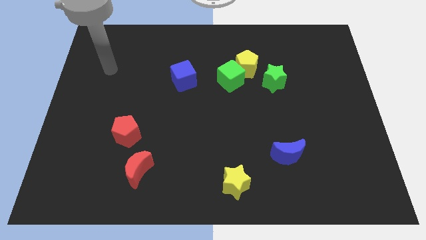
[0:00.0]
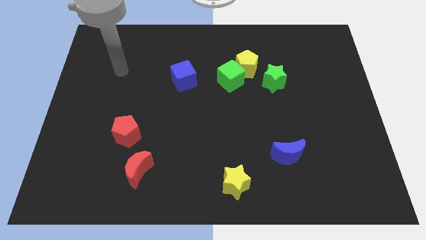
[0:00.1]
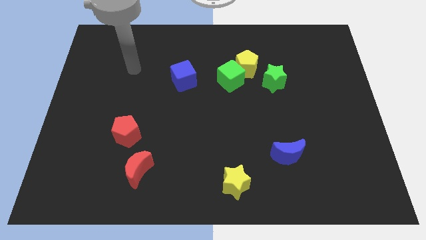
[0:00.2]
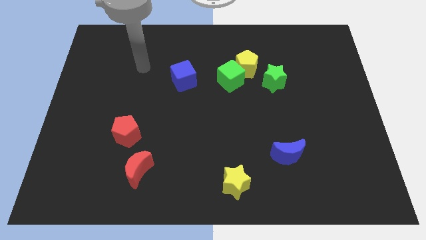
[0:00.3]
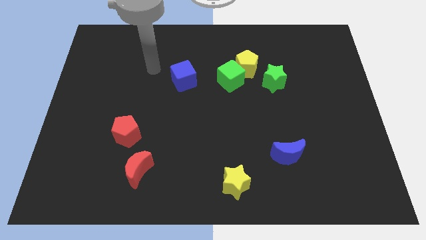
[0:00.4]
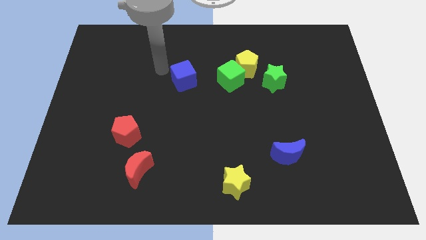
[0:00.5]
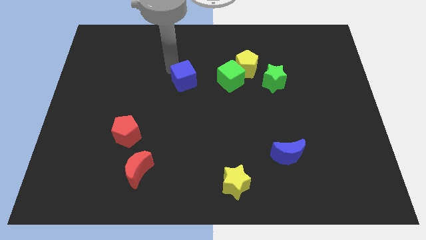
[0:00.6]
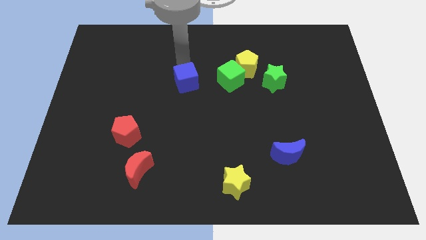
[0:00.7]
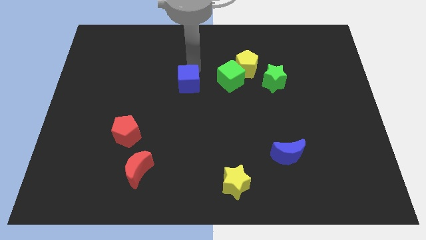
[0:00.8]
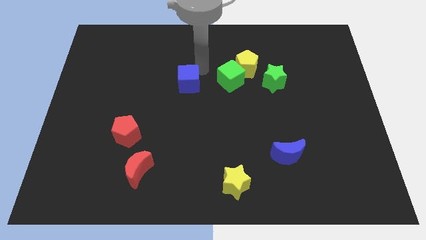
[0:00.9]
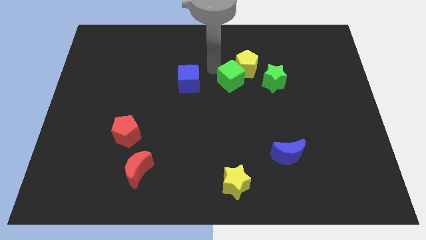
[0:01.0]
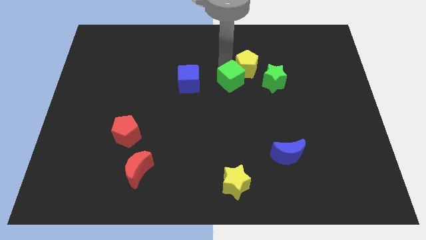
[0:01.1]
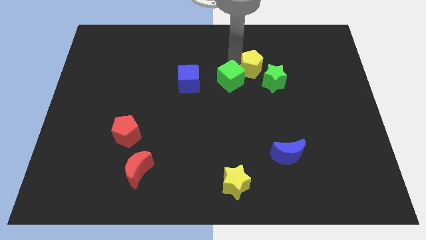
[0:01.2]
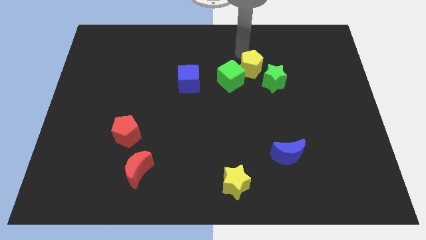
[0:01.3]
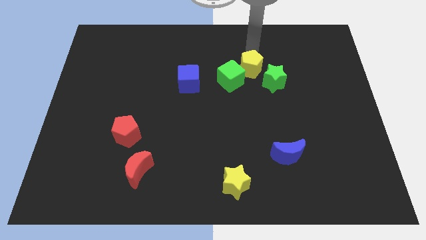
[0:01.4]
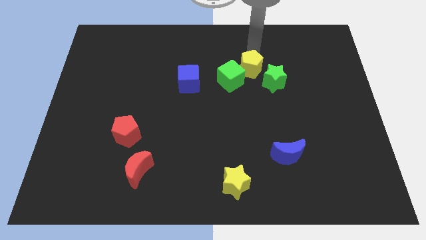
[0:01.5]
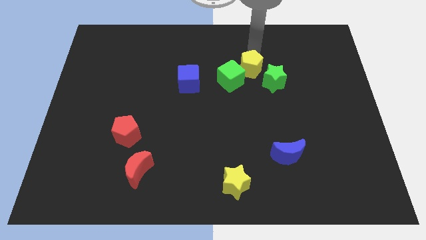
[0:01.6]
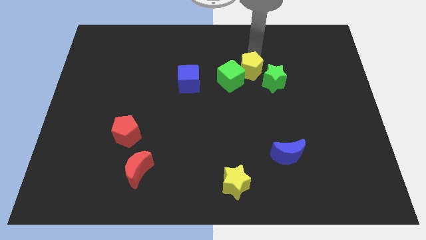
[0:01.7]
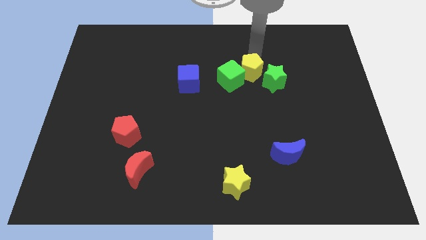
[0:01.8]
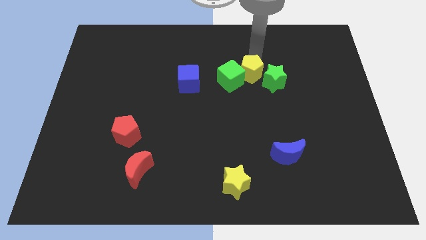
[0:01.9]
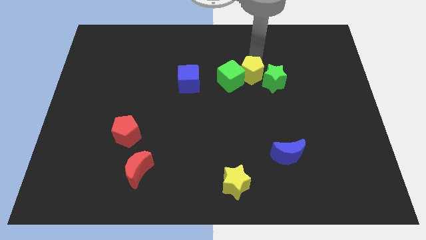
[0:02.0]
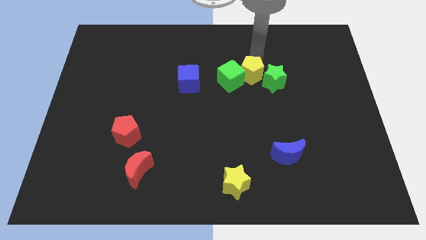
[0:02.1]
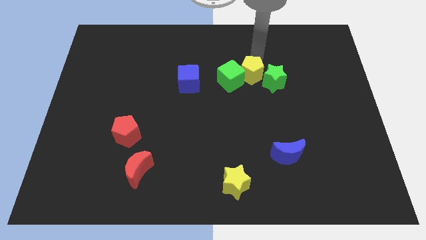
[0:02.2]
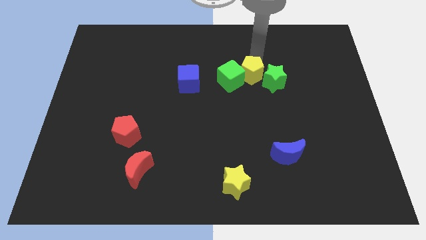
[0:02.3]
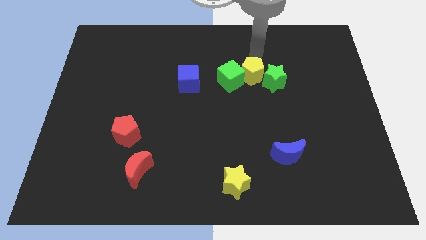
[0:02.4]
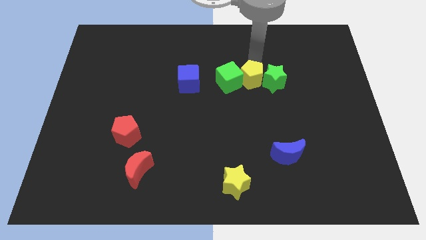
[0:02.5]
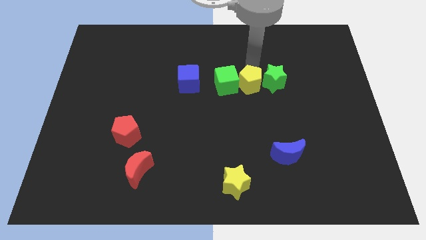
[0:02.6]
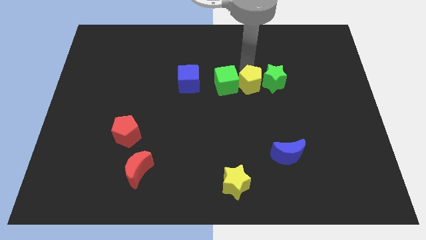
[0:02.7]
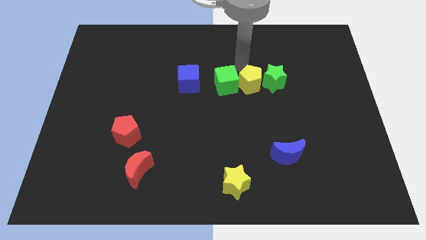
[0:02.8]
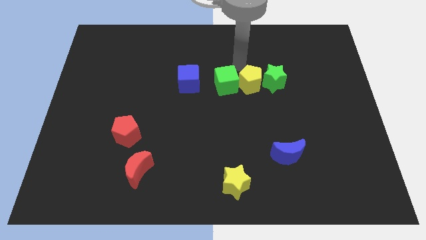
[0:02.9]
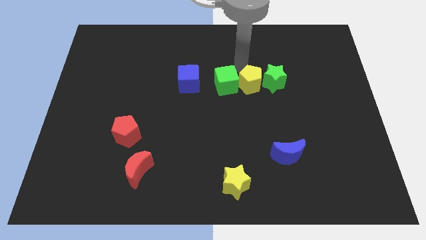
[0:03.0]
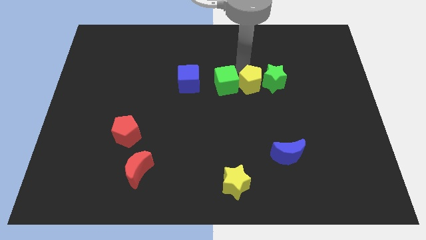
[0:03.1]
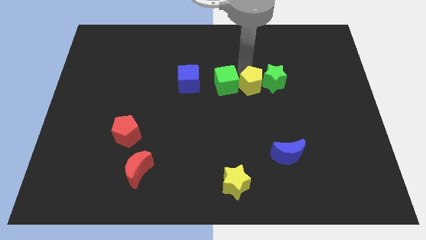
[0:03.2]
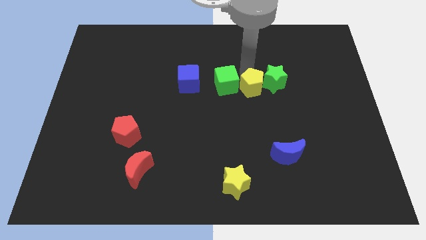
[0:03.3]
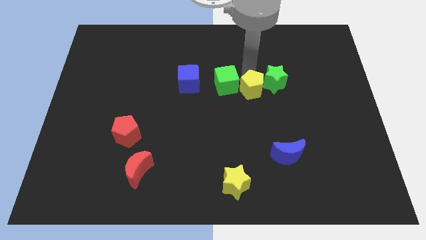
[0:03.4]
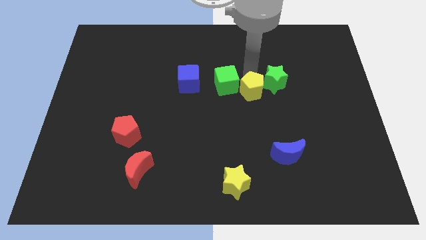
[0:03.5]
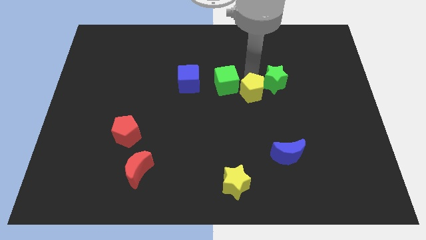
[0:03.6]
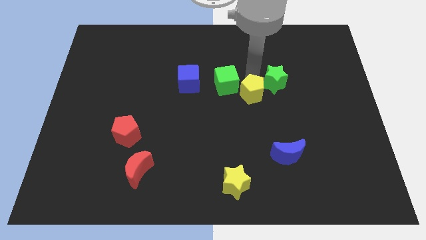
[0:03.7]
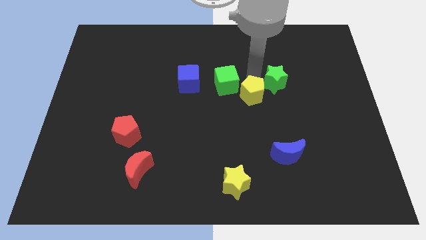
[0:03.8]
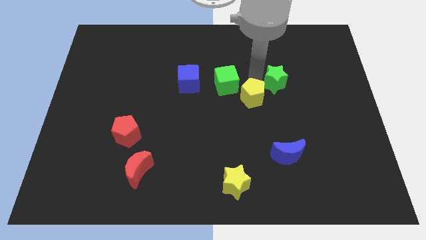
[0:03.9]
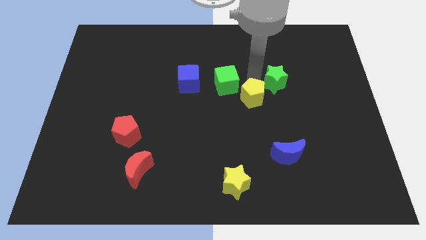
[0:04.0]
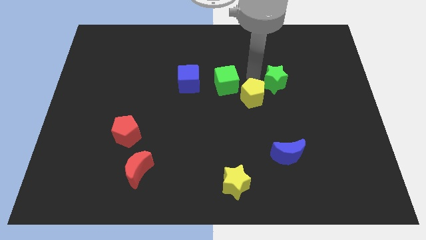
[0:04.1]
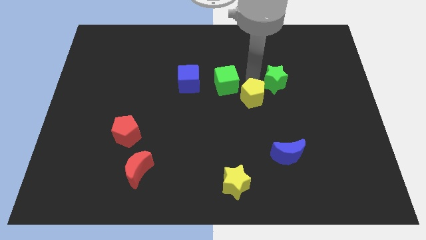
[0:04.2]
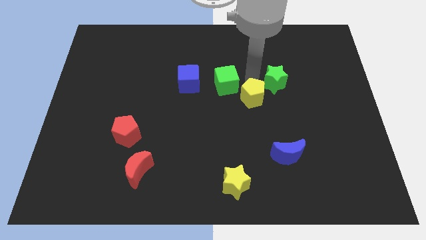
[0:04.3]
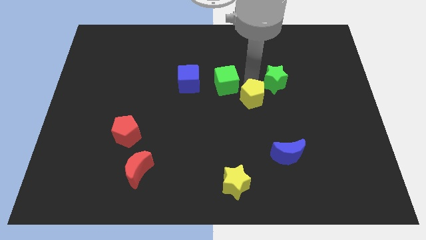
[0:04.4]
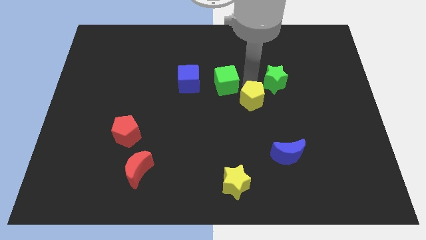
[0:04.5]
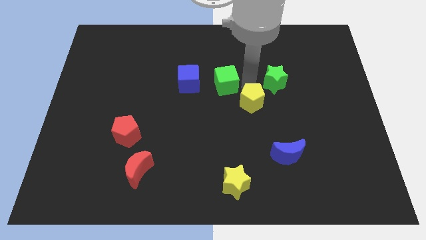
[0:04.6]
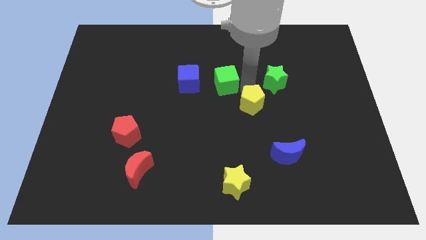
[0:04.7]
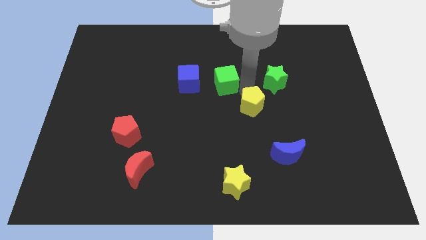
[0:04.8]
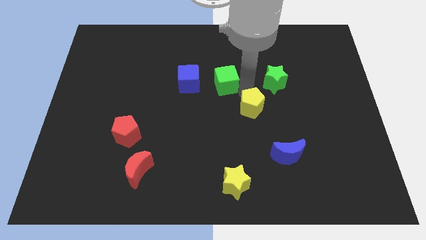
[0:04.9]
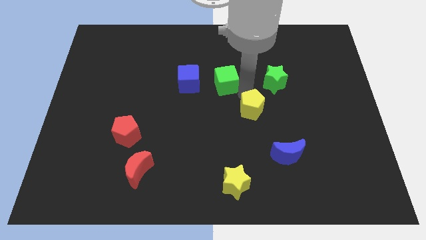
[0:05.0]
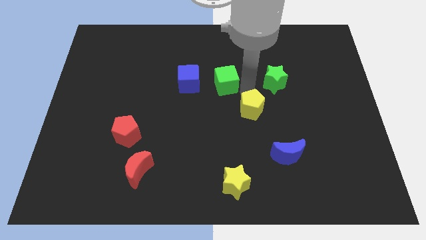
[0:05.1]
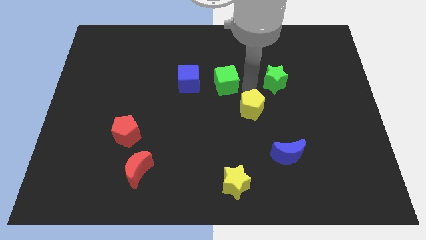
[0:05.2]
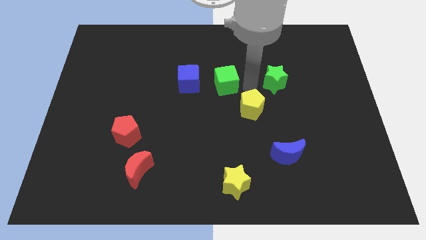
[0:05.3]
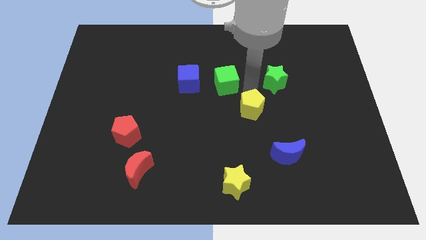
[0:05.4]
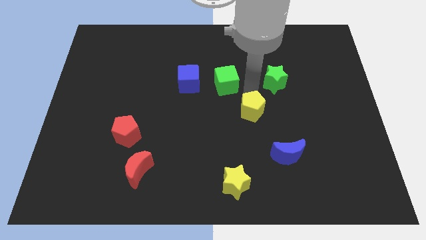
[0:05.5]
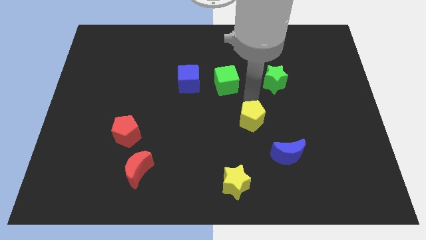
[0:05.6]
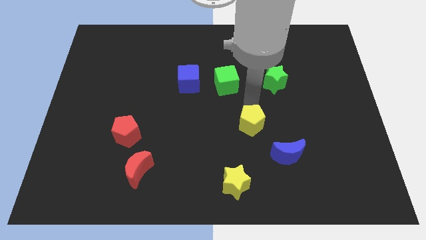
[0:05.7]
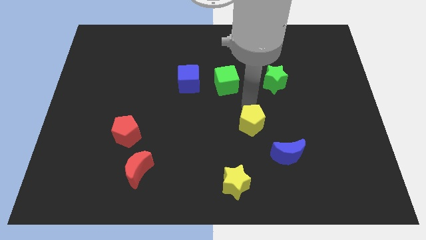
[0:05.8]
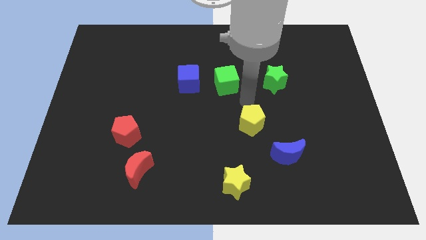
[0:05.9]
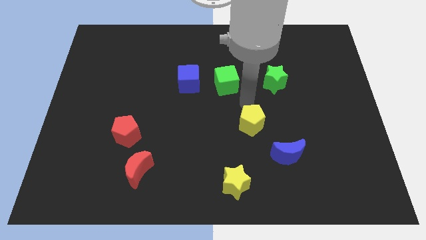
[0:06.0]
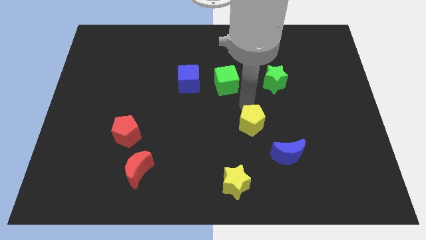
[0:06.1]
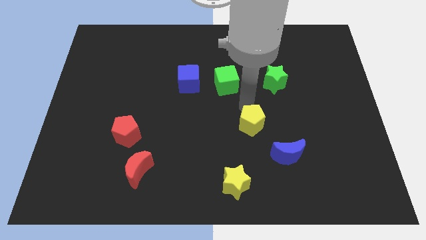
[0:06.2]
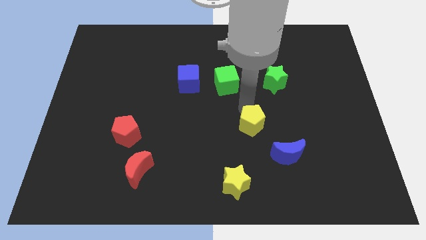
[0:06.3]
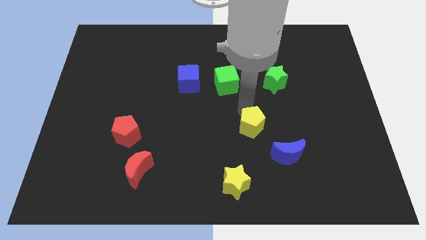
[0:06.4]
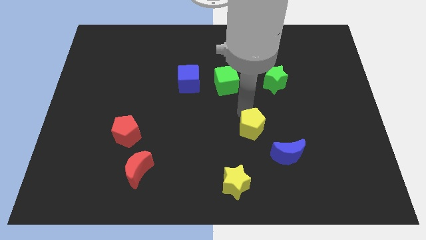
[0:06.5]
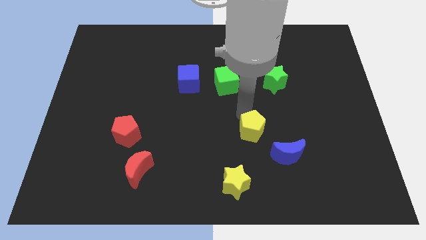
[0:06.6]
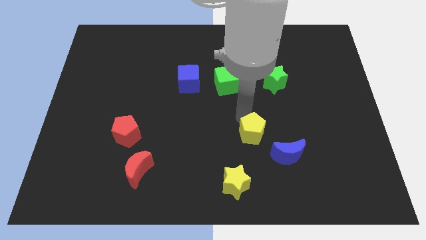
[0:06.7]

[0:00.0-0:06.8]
push the yellow pentagon downwards

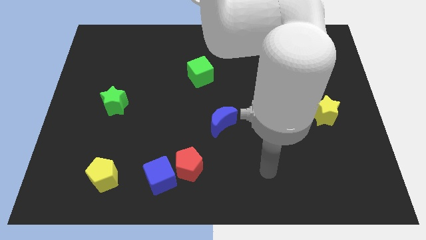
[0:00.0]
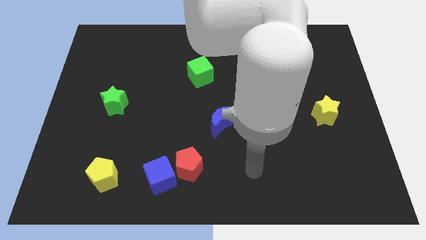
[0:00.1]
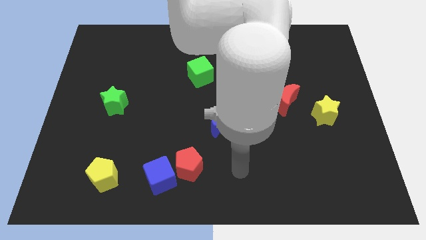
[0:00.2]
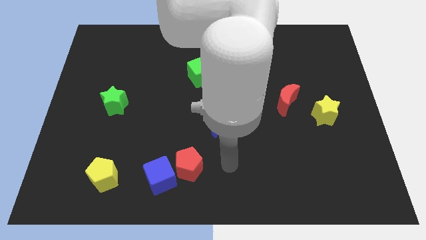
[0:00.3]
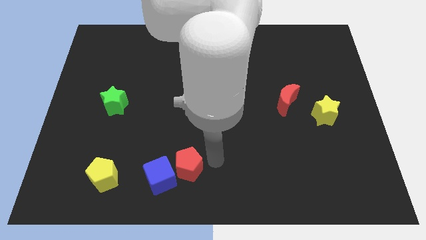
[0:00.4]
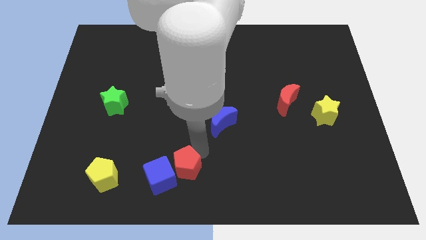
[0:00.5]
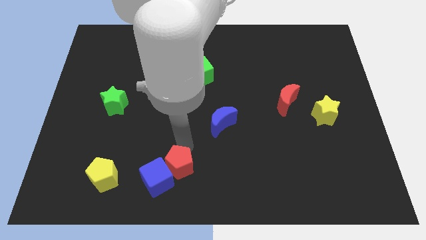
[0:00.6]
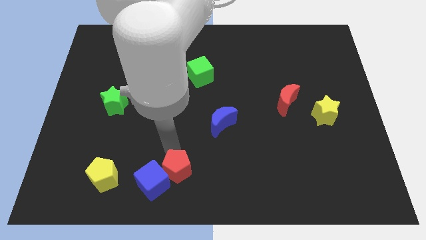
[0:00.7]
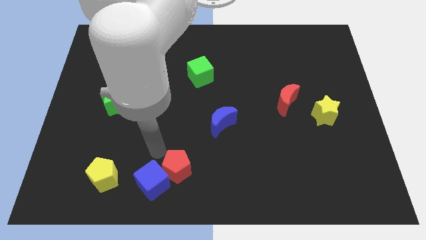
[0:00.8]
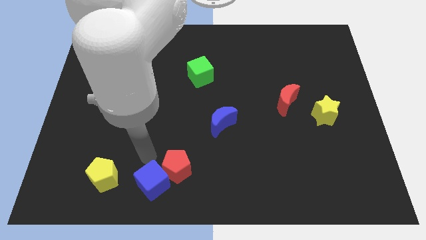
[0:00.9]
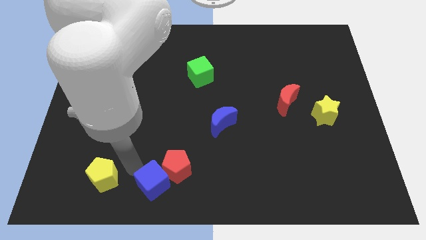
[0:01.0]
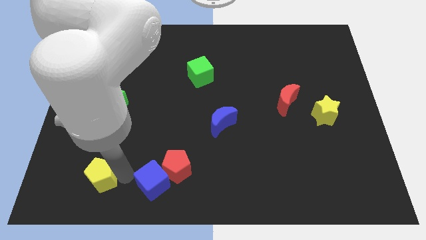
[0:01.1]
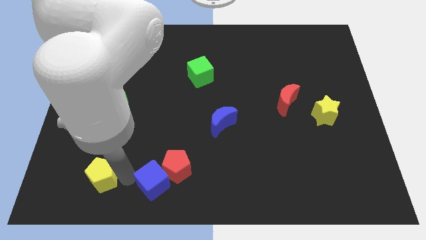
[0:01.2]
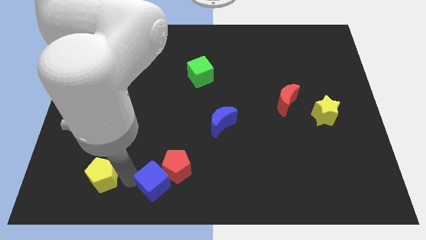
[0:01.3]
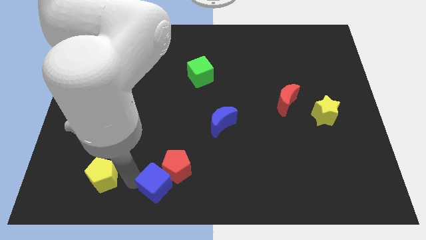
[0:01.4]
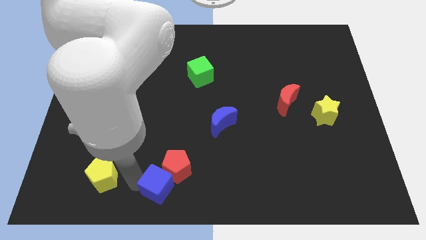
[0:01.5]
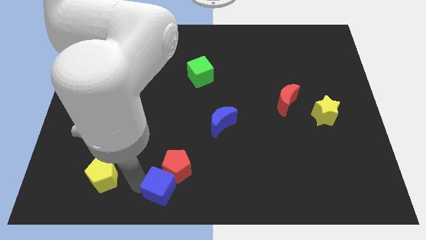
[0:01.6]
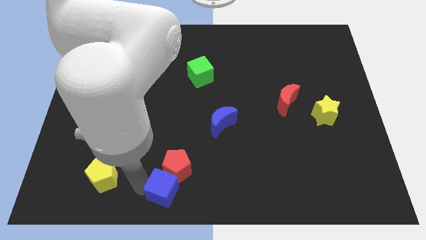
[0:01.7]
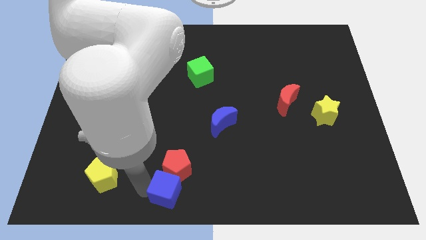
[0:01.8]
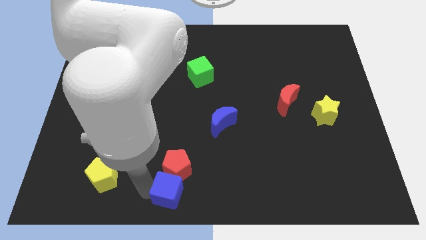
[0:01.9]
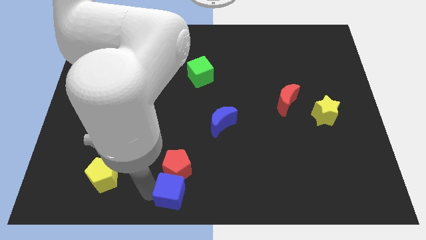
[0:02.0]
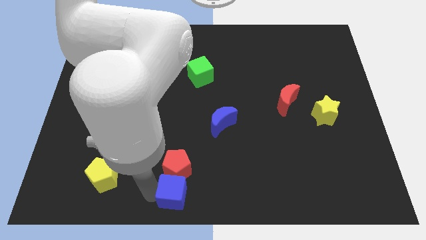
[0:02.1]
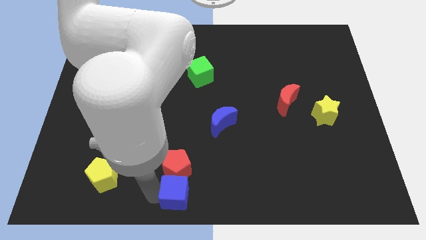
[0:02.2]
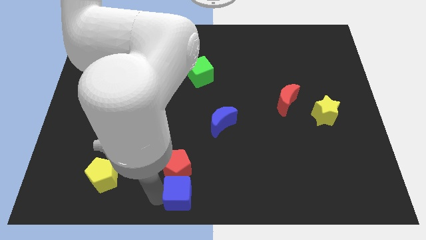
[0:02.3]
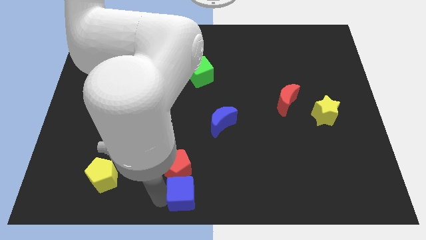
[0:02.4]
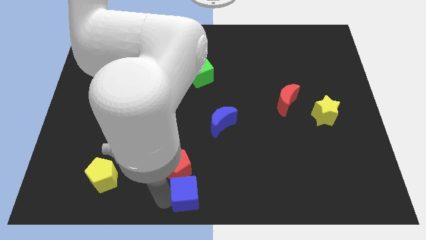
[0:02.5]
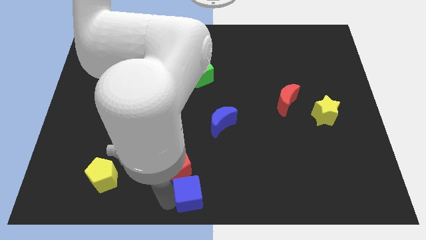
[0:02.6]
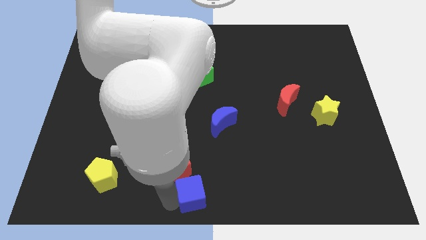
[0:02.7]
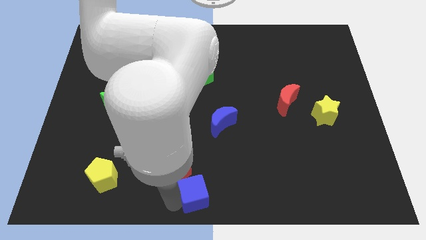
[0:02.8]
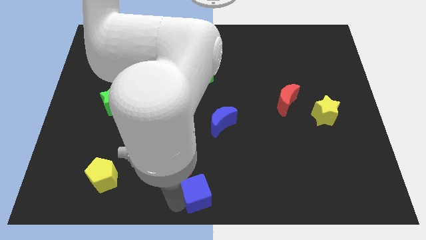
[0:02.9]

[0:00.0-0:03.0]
slide the blue cube somewhat right
